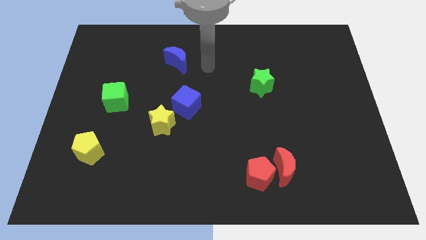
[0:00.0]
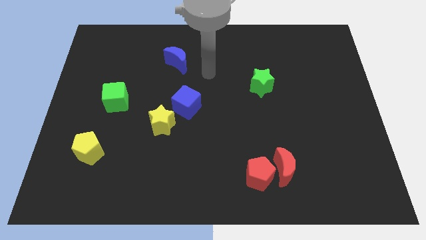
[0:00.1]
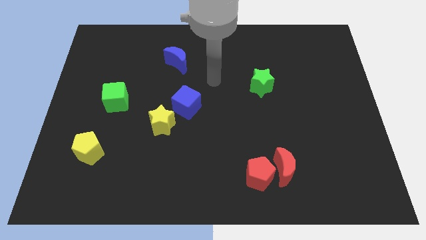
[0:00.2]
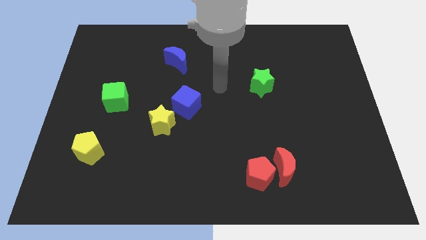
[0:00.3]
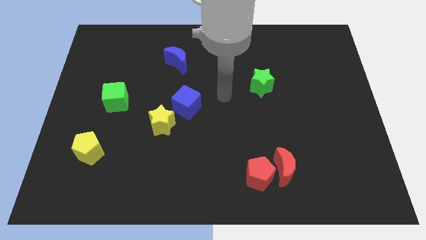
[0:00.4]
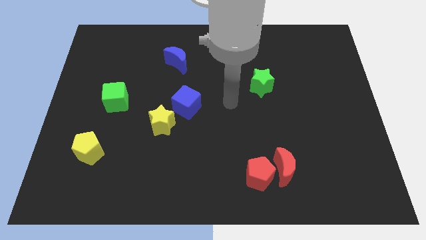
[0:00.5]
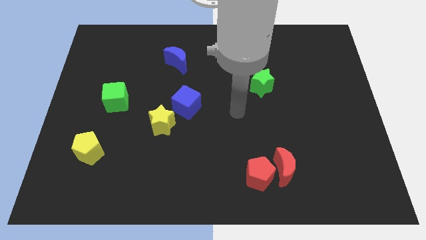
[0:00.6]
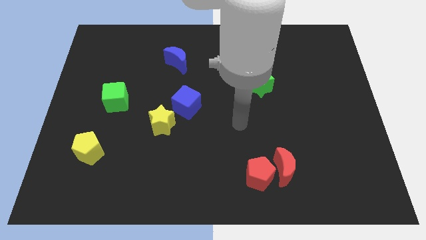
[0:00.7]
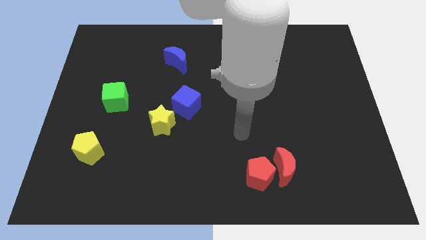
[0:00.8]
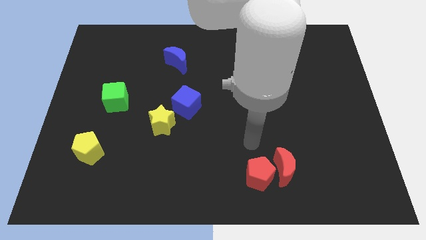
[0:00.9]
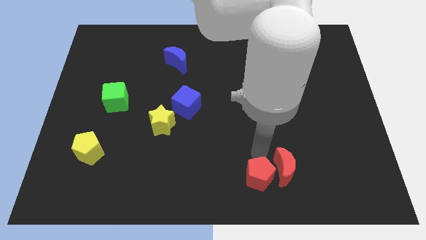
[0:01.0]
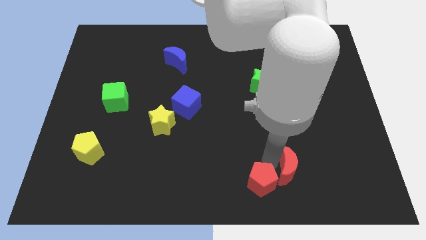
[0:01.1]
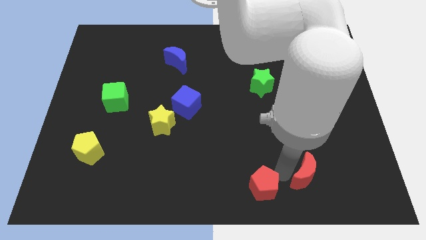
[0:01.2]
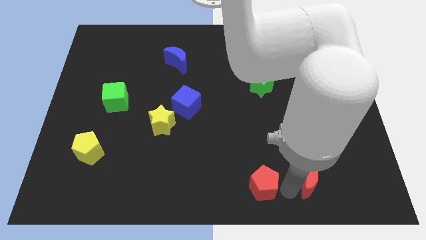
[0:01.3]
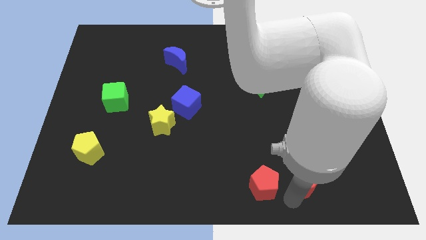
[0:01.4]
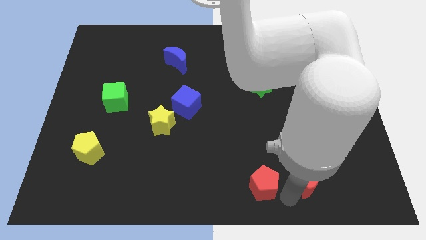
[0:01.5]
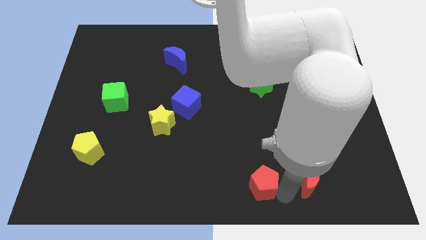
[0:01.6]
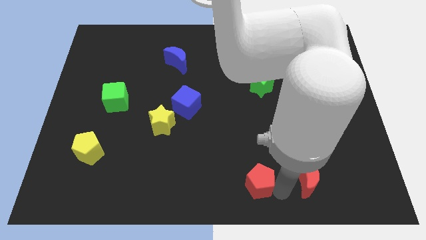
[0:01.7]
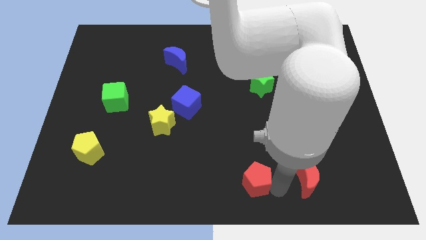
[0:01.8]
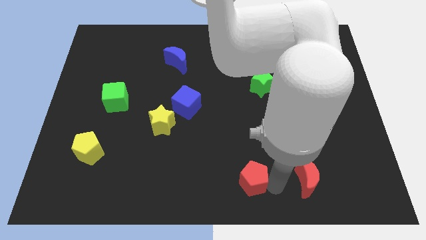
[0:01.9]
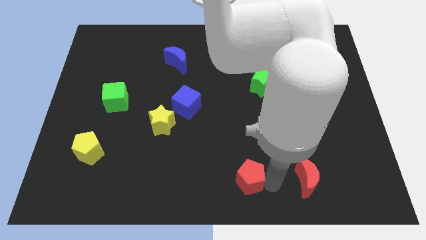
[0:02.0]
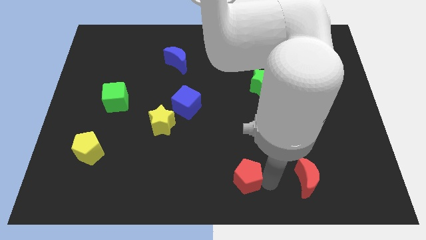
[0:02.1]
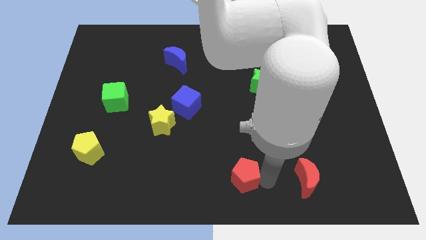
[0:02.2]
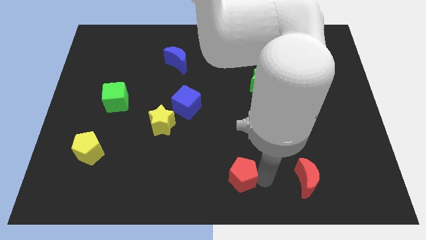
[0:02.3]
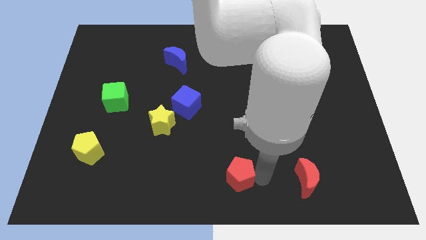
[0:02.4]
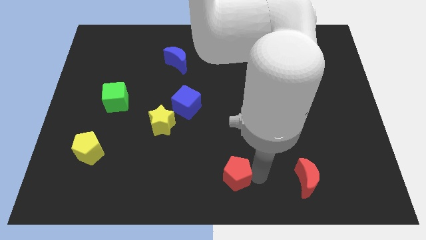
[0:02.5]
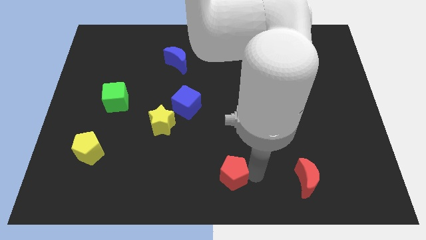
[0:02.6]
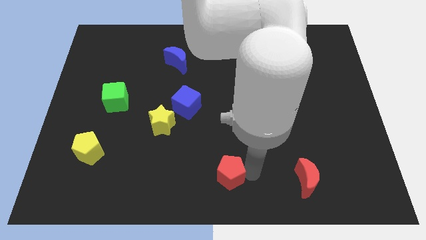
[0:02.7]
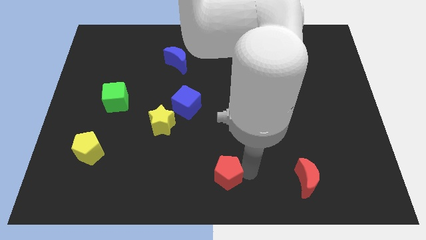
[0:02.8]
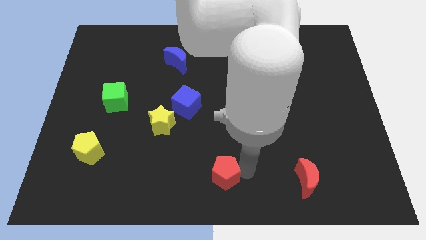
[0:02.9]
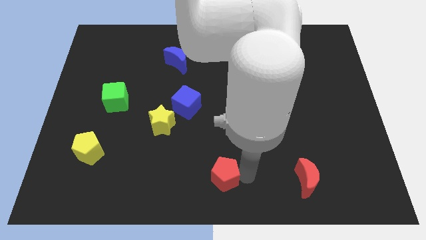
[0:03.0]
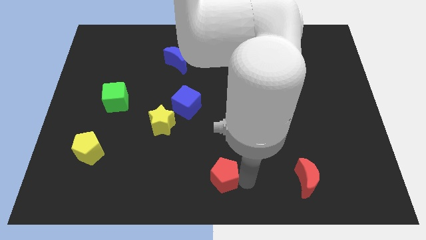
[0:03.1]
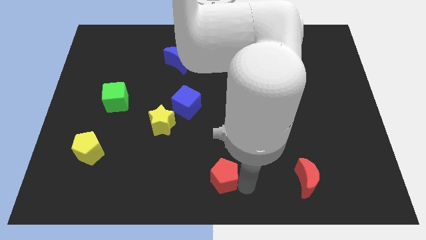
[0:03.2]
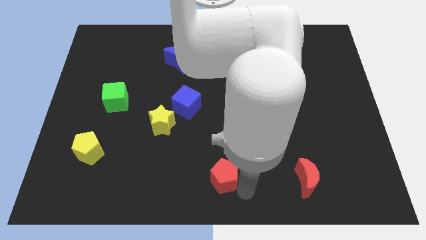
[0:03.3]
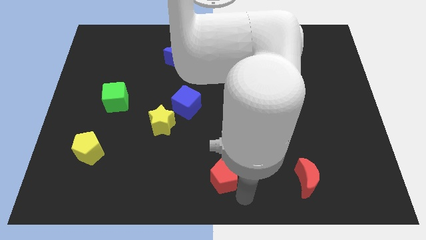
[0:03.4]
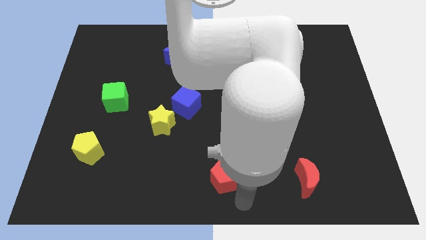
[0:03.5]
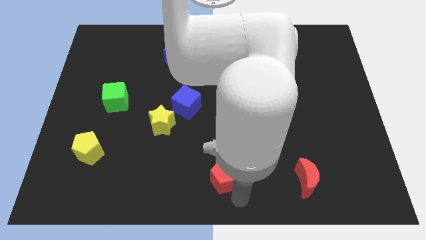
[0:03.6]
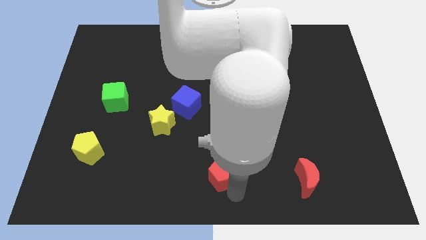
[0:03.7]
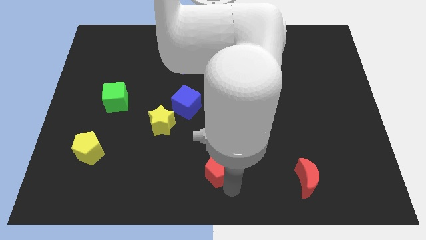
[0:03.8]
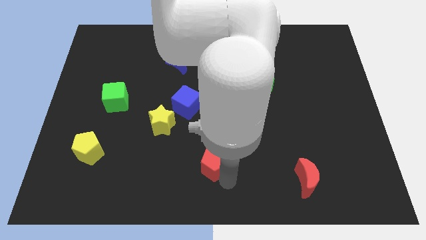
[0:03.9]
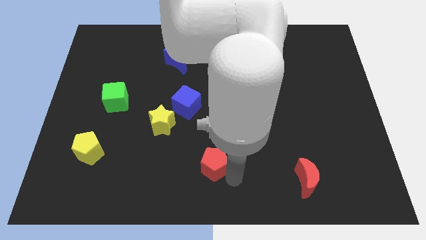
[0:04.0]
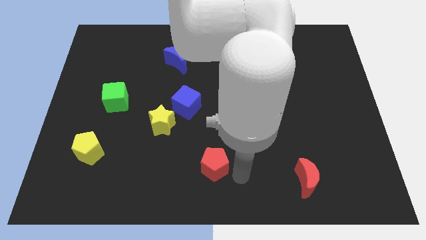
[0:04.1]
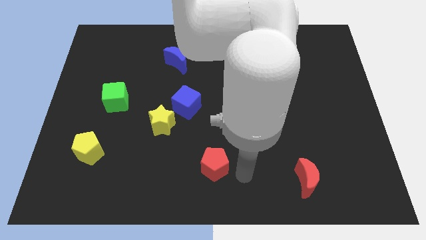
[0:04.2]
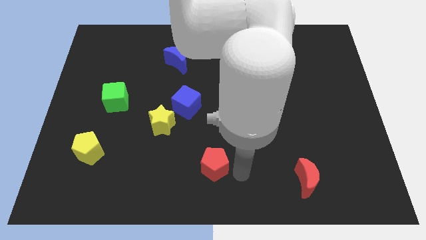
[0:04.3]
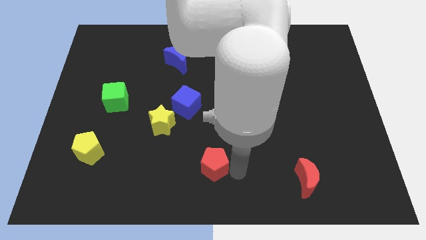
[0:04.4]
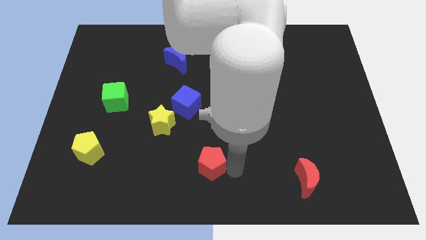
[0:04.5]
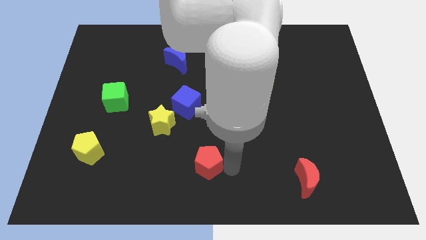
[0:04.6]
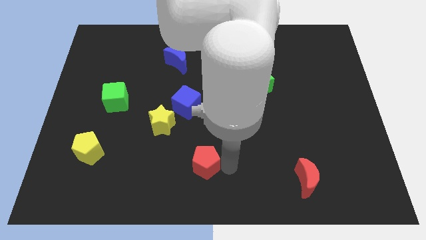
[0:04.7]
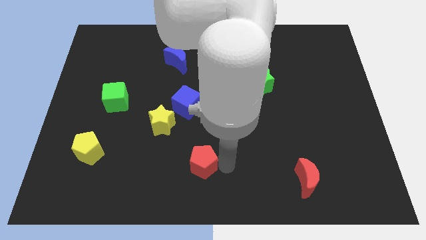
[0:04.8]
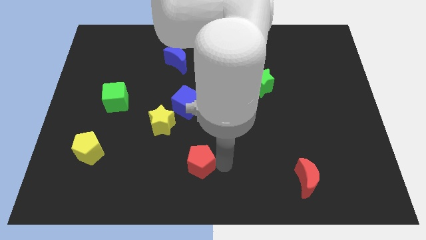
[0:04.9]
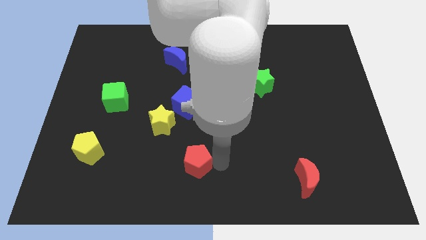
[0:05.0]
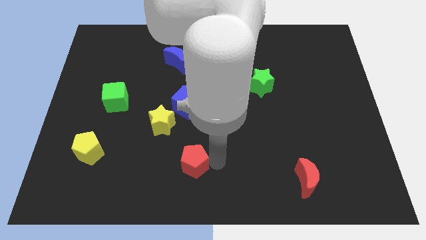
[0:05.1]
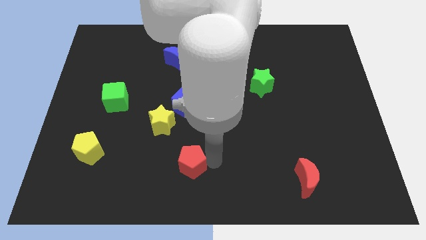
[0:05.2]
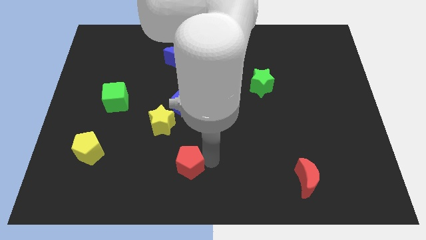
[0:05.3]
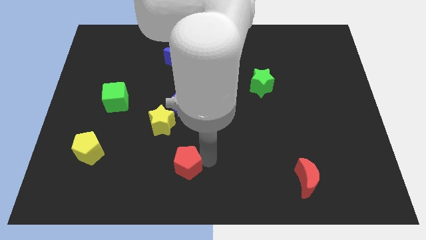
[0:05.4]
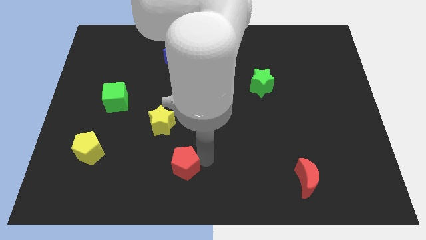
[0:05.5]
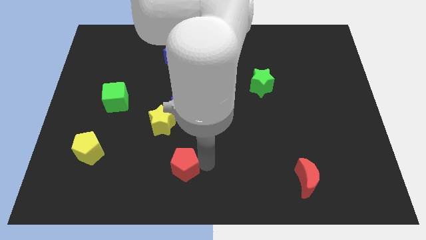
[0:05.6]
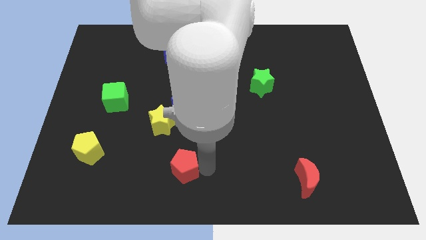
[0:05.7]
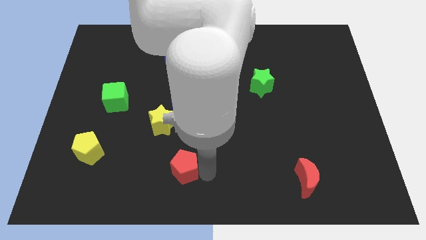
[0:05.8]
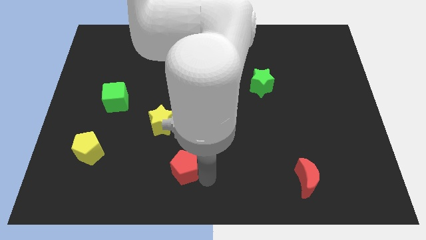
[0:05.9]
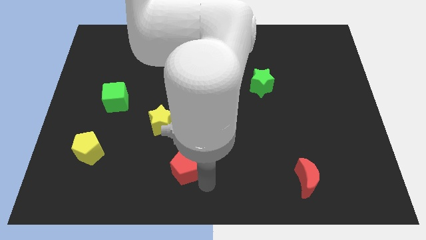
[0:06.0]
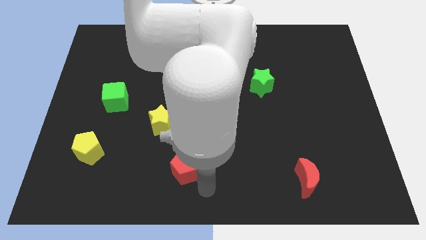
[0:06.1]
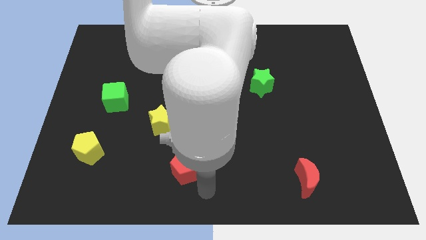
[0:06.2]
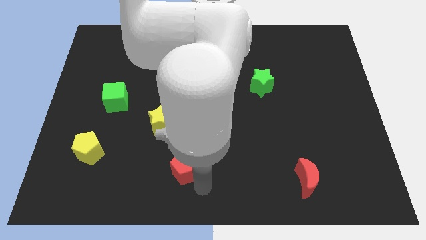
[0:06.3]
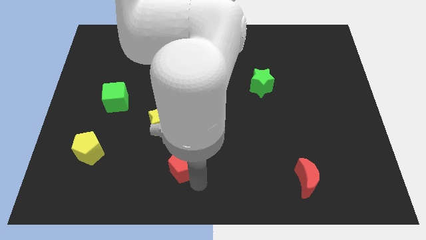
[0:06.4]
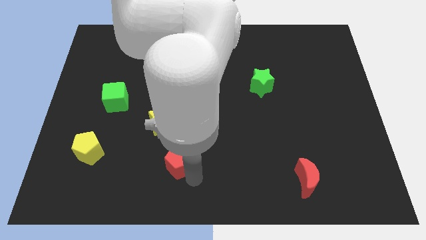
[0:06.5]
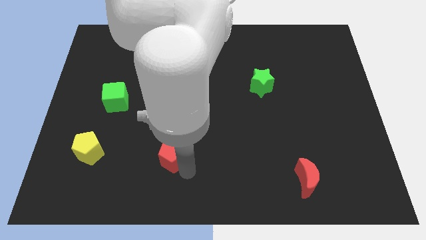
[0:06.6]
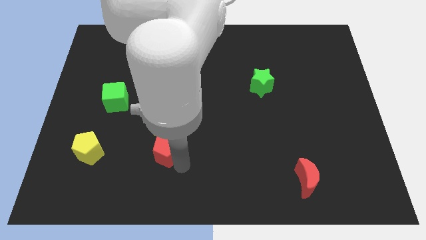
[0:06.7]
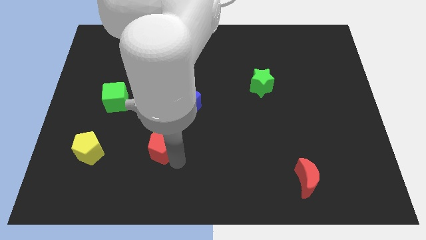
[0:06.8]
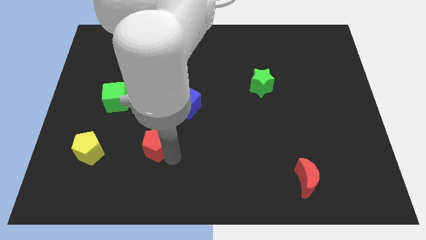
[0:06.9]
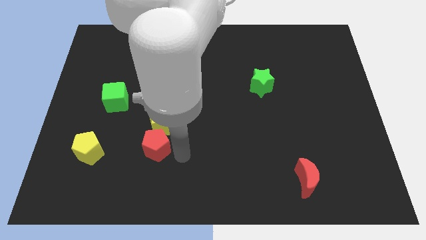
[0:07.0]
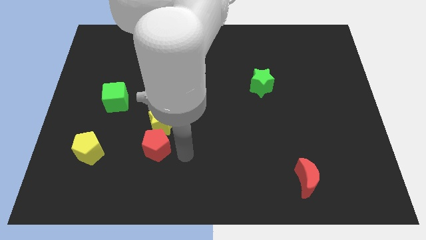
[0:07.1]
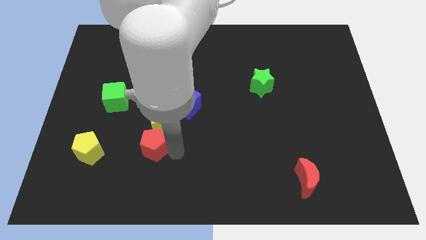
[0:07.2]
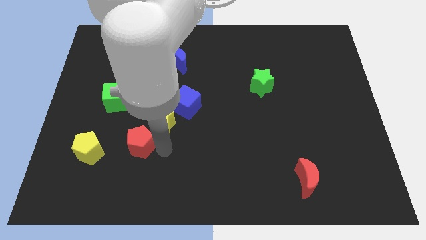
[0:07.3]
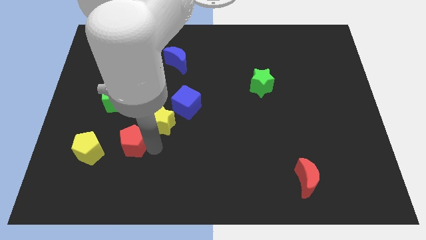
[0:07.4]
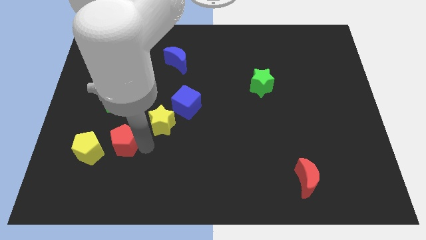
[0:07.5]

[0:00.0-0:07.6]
slide the red pentagon to the bottom side of the green cube
